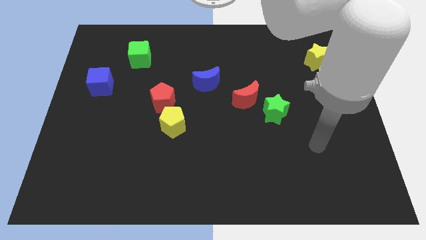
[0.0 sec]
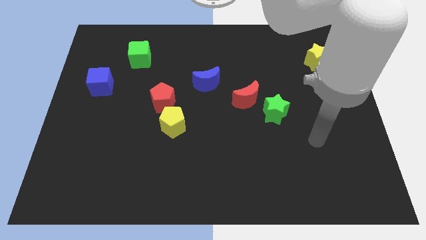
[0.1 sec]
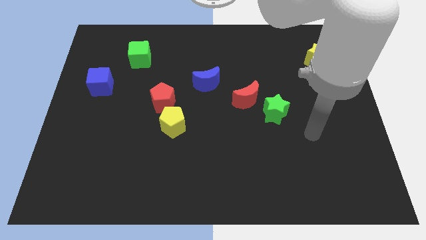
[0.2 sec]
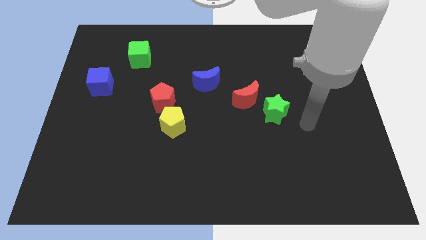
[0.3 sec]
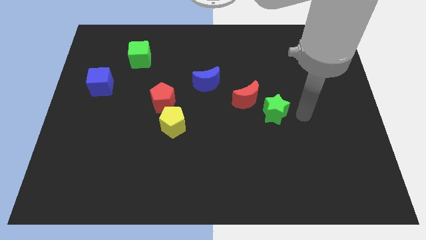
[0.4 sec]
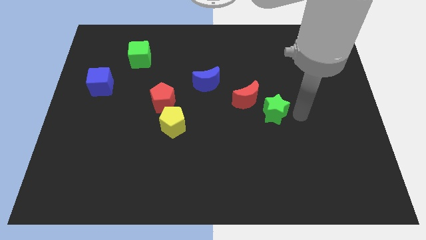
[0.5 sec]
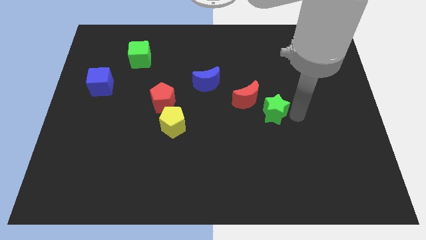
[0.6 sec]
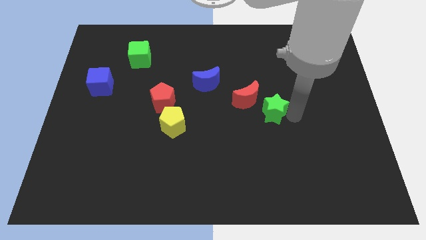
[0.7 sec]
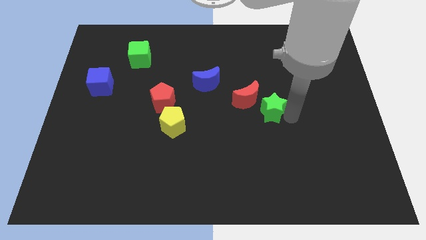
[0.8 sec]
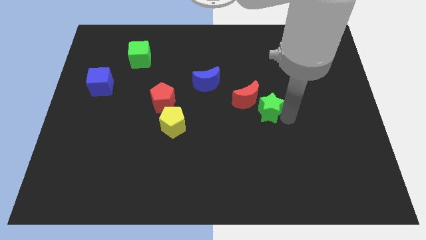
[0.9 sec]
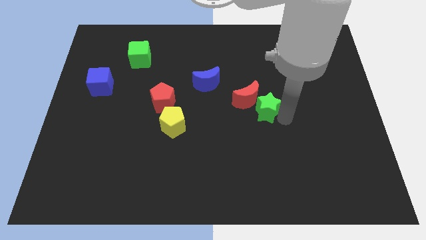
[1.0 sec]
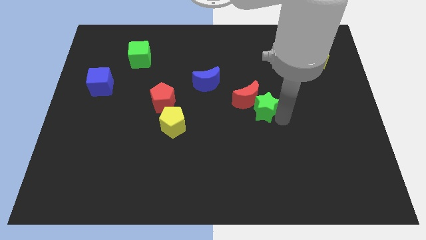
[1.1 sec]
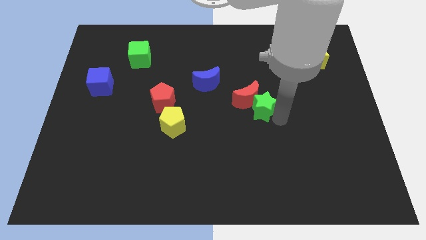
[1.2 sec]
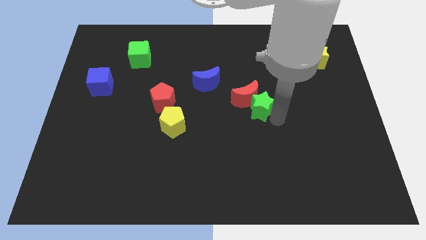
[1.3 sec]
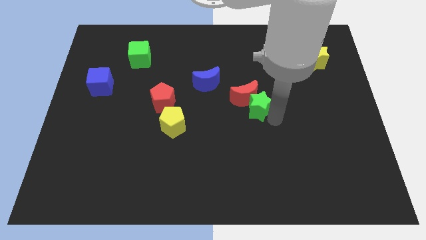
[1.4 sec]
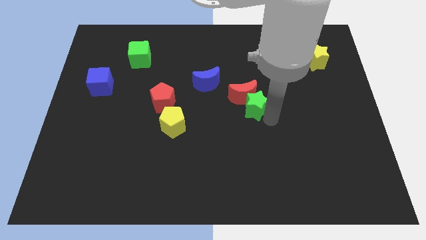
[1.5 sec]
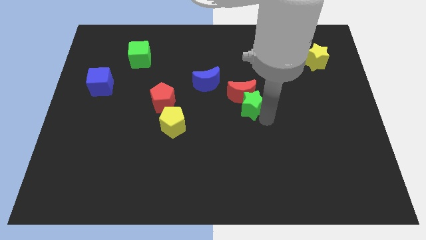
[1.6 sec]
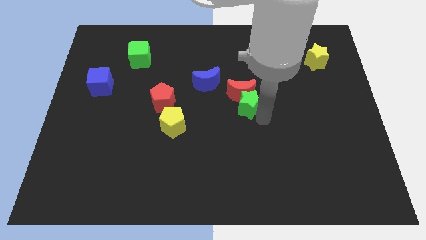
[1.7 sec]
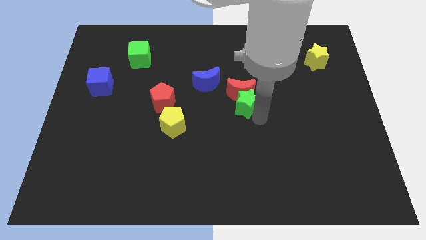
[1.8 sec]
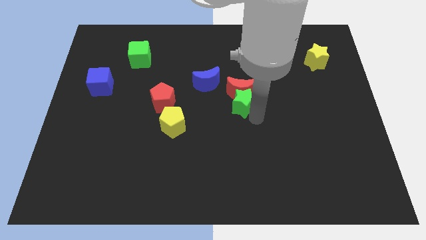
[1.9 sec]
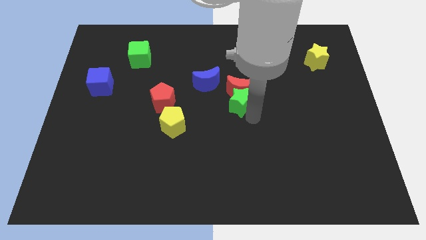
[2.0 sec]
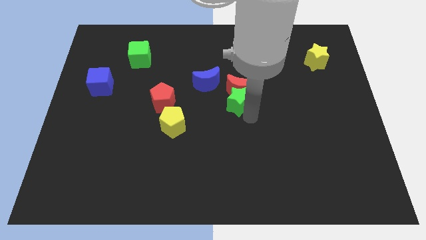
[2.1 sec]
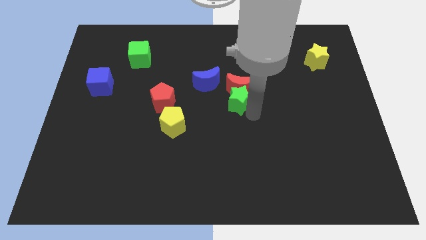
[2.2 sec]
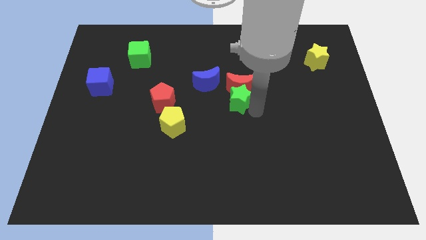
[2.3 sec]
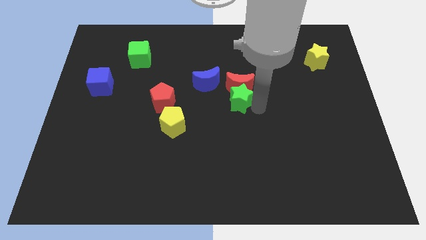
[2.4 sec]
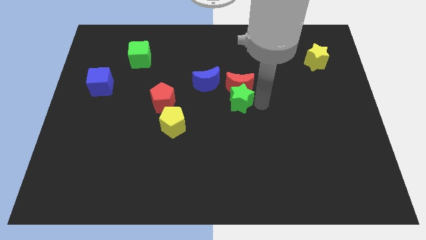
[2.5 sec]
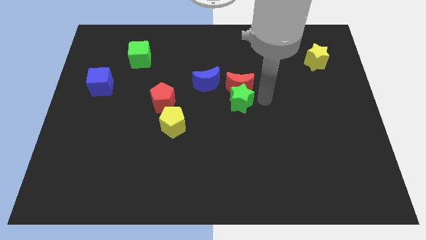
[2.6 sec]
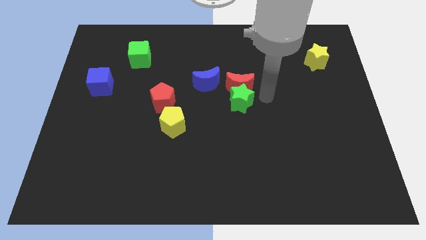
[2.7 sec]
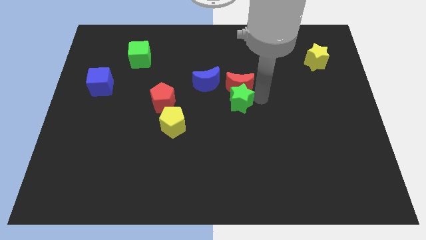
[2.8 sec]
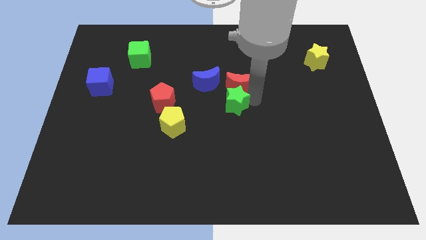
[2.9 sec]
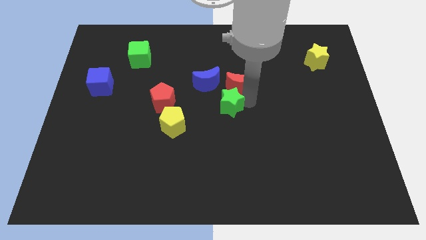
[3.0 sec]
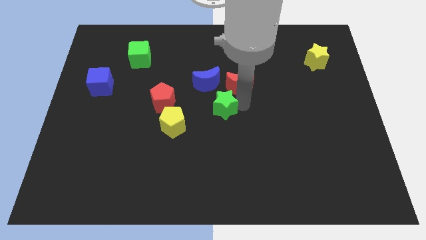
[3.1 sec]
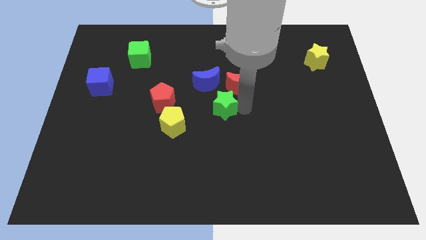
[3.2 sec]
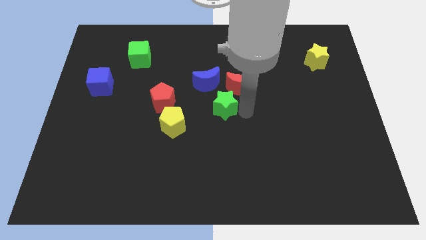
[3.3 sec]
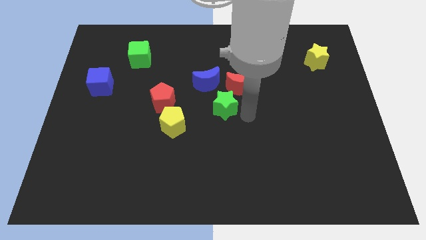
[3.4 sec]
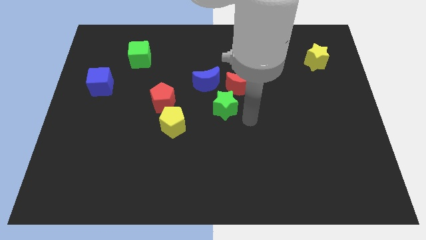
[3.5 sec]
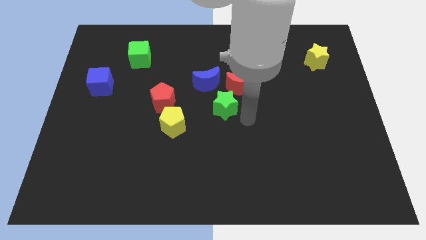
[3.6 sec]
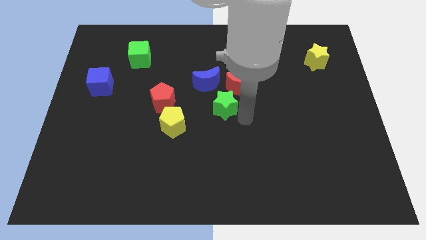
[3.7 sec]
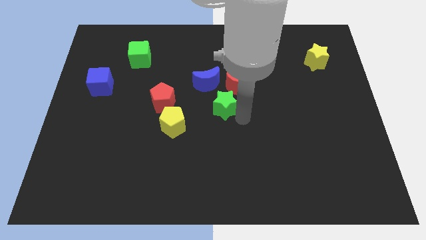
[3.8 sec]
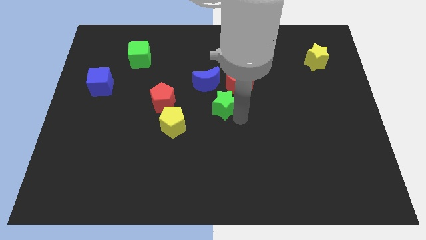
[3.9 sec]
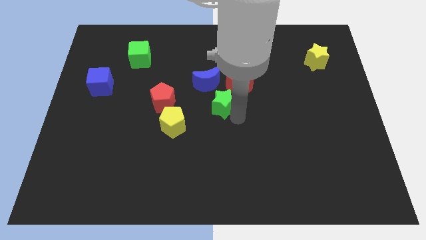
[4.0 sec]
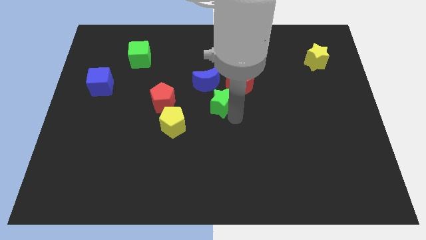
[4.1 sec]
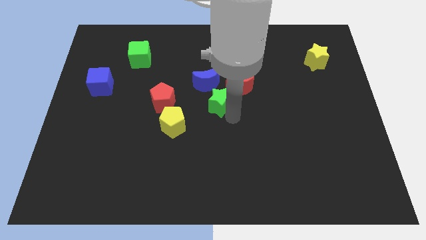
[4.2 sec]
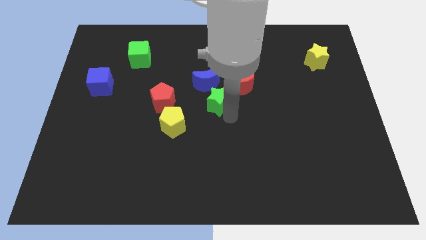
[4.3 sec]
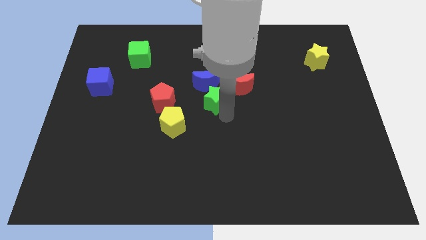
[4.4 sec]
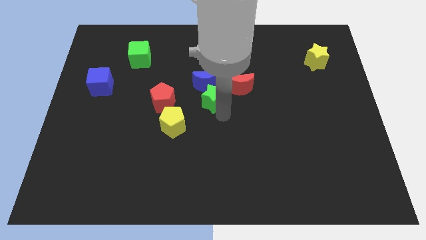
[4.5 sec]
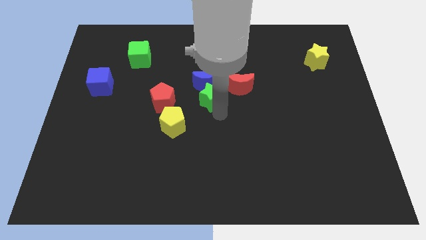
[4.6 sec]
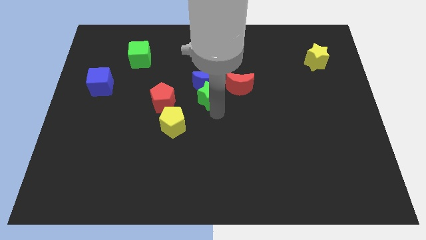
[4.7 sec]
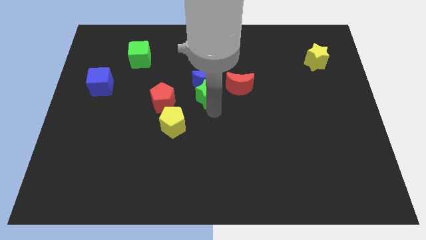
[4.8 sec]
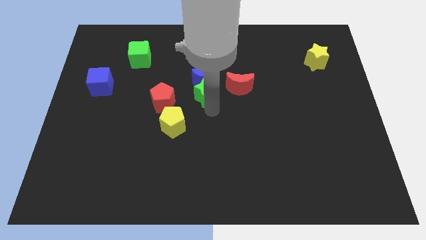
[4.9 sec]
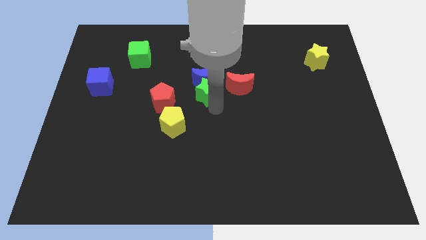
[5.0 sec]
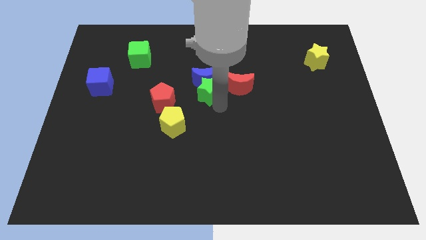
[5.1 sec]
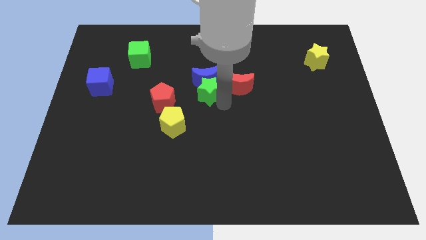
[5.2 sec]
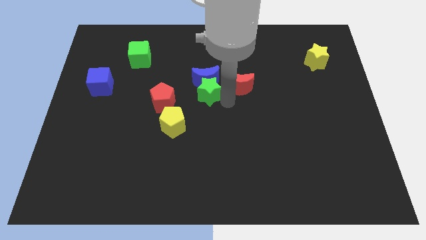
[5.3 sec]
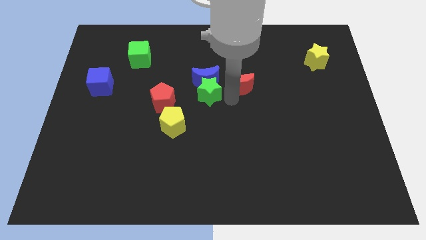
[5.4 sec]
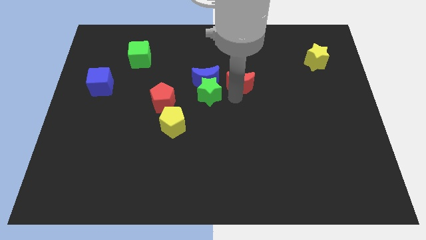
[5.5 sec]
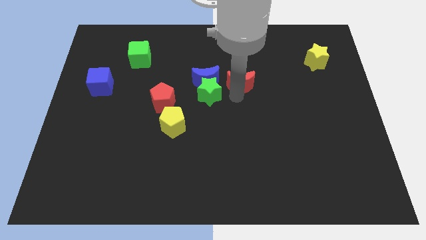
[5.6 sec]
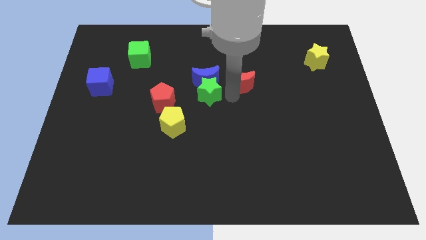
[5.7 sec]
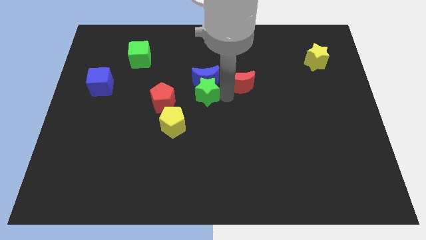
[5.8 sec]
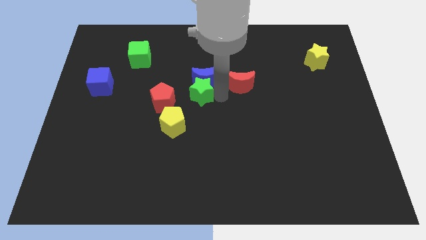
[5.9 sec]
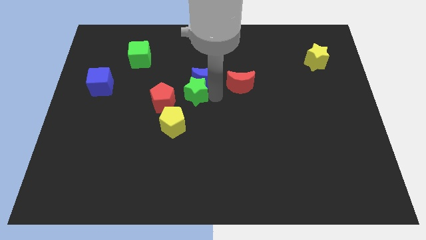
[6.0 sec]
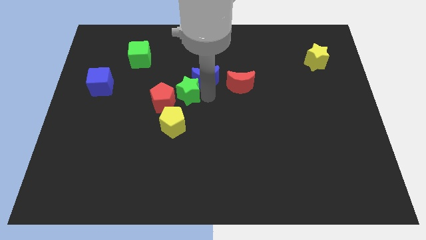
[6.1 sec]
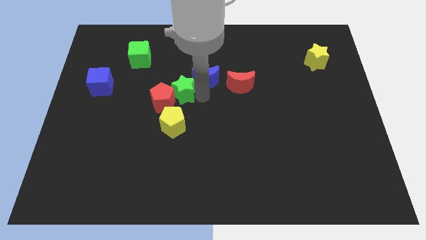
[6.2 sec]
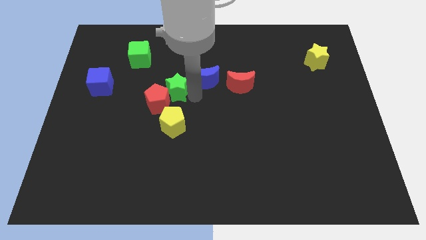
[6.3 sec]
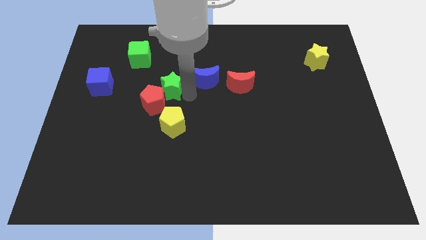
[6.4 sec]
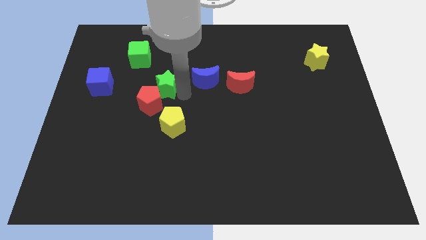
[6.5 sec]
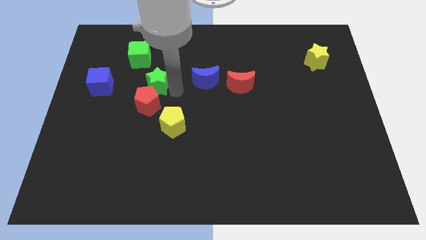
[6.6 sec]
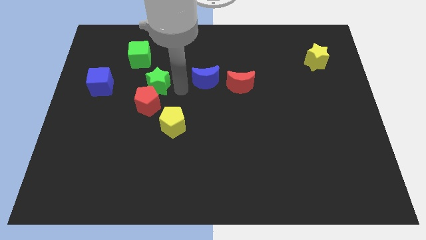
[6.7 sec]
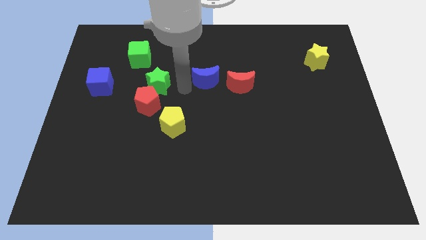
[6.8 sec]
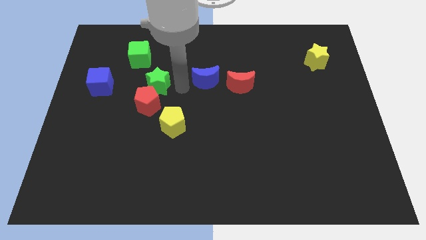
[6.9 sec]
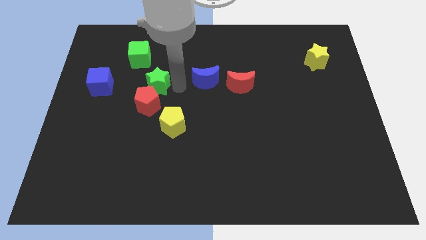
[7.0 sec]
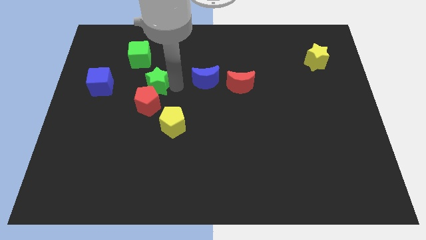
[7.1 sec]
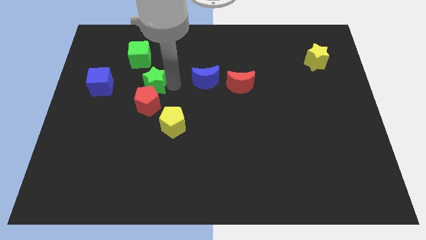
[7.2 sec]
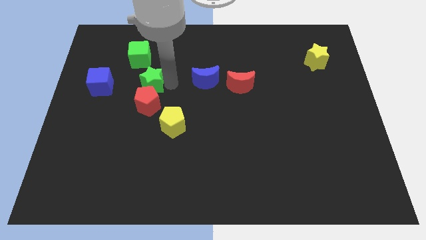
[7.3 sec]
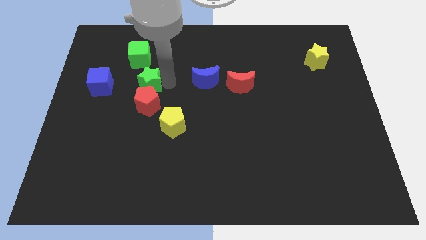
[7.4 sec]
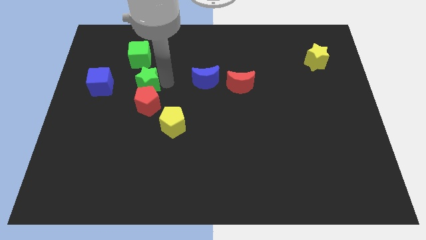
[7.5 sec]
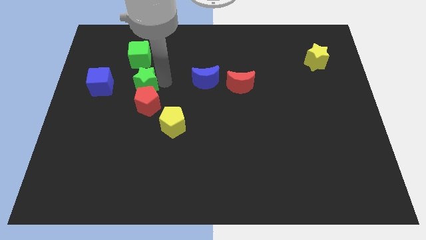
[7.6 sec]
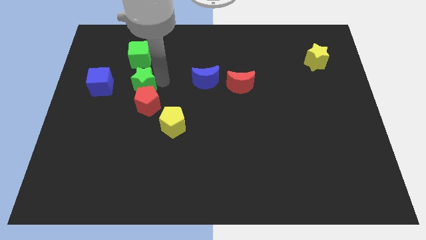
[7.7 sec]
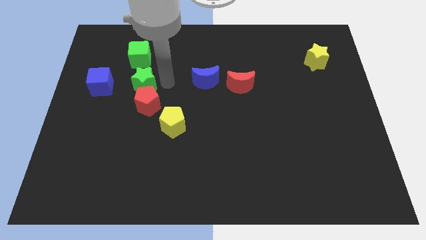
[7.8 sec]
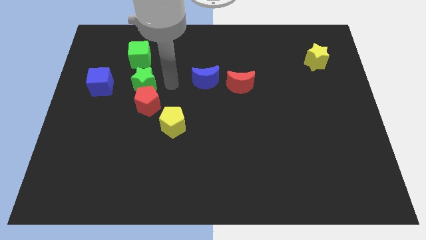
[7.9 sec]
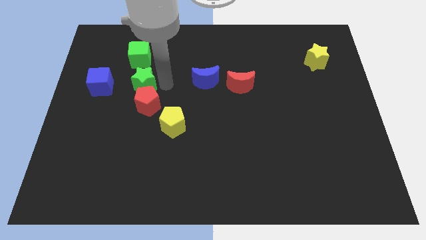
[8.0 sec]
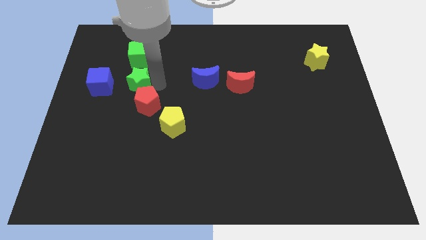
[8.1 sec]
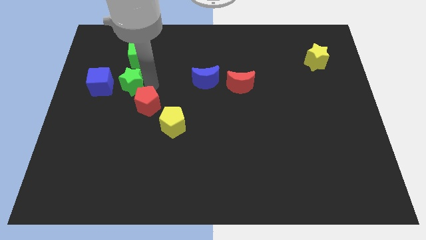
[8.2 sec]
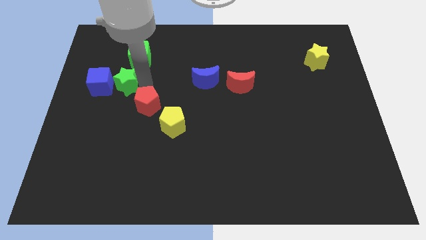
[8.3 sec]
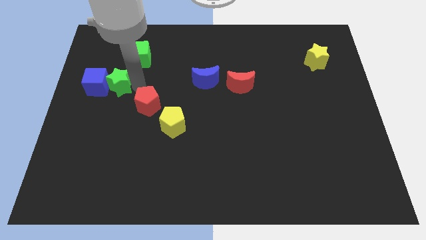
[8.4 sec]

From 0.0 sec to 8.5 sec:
put the green star close to the blue cube
